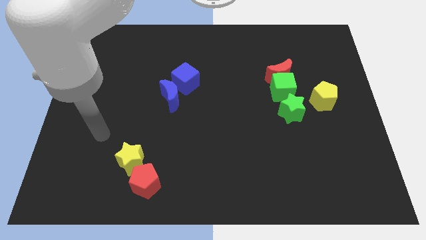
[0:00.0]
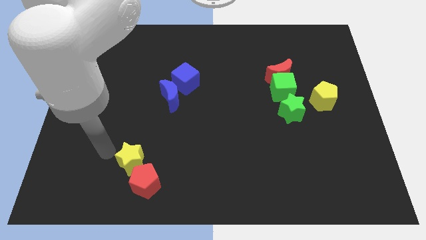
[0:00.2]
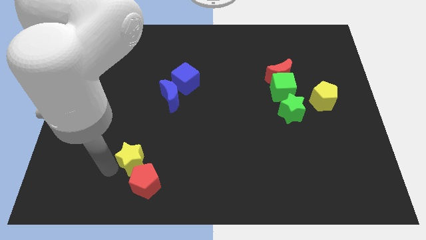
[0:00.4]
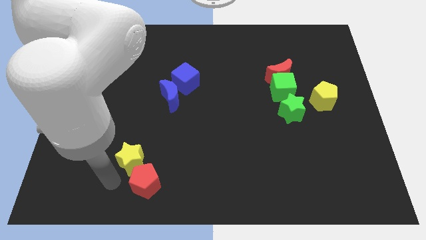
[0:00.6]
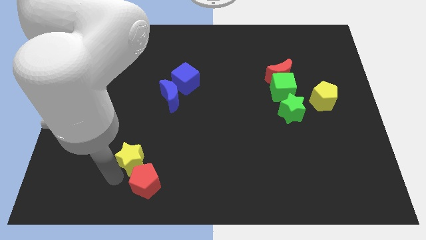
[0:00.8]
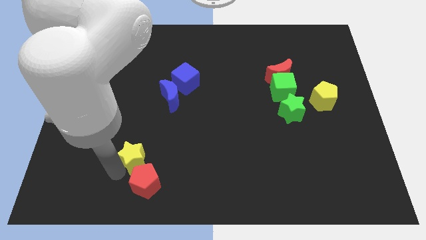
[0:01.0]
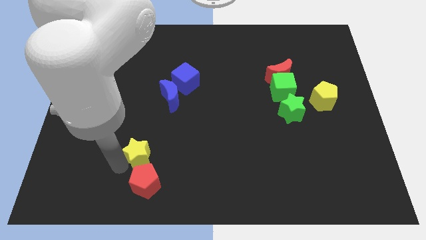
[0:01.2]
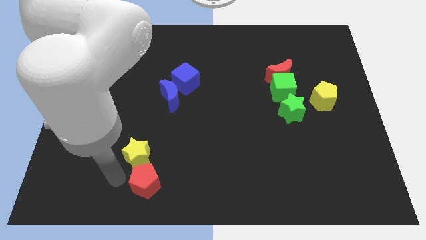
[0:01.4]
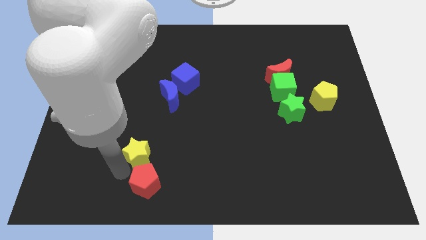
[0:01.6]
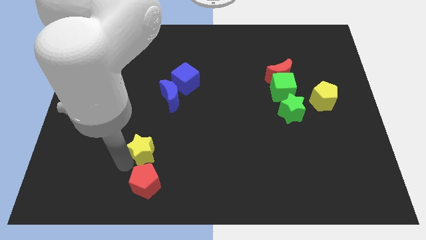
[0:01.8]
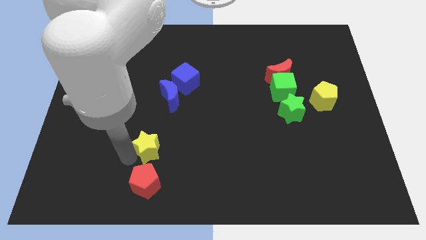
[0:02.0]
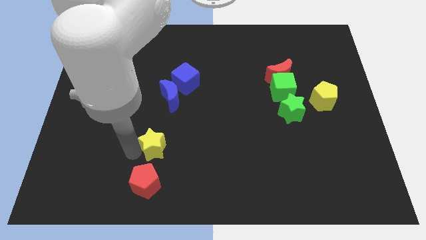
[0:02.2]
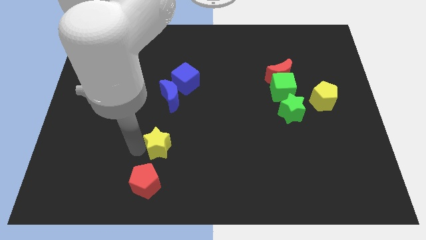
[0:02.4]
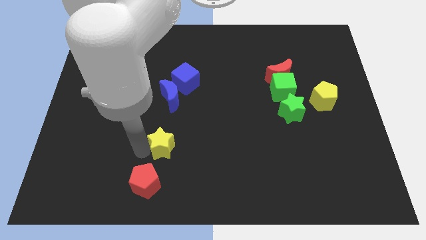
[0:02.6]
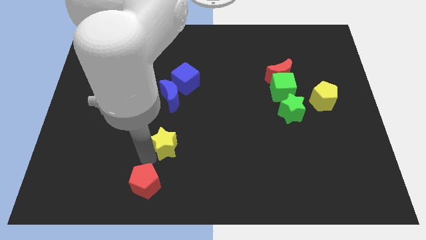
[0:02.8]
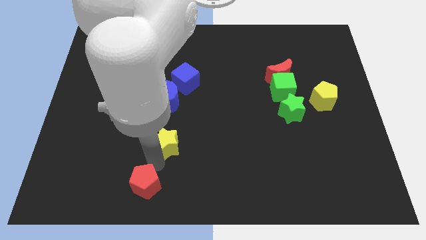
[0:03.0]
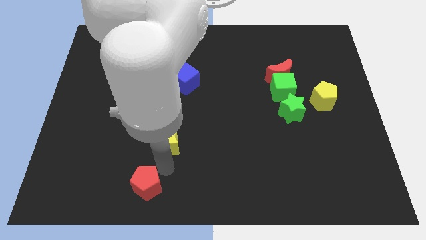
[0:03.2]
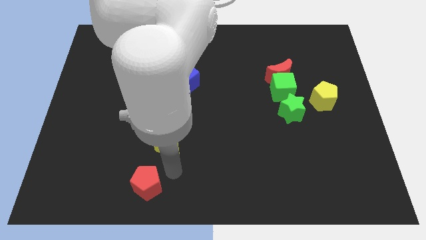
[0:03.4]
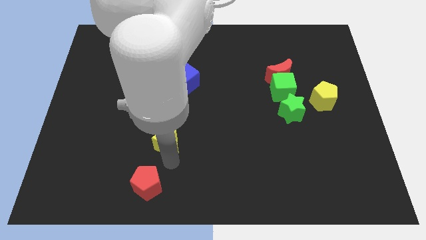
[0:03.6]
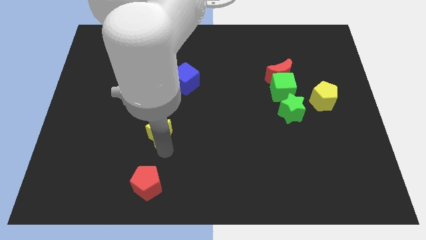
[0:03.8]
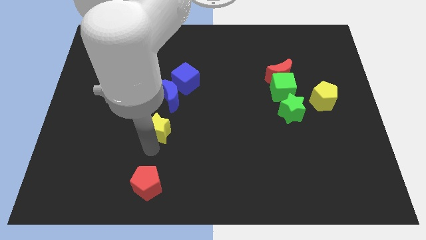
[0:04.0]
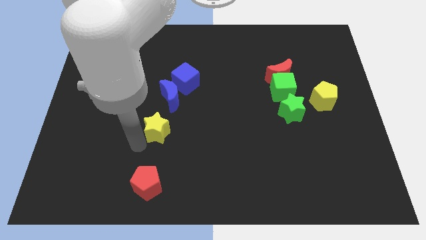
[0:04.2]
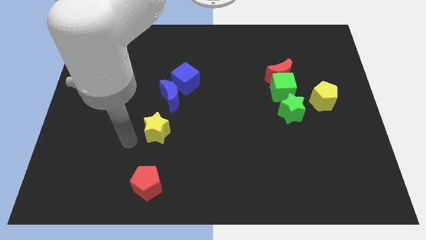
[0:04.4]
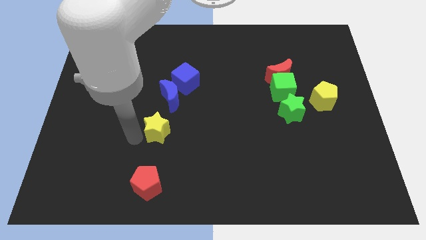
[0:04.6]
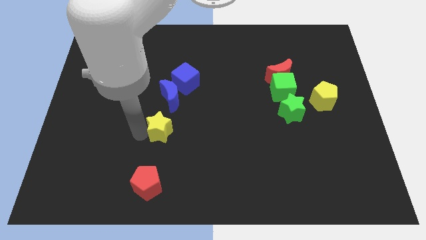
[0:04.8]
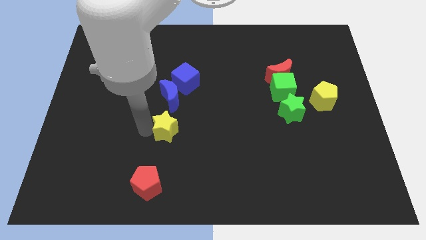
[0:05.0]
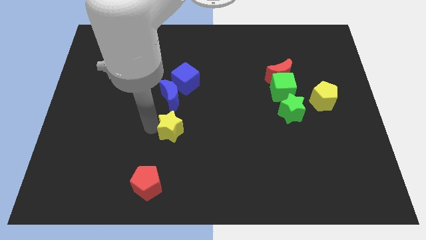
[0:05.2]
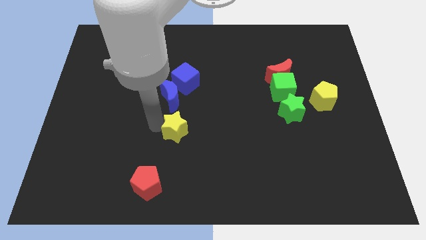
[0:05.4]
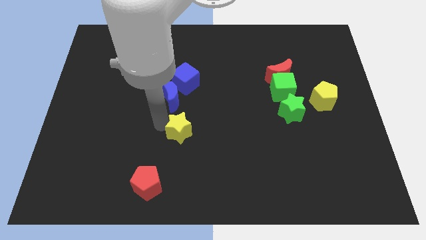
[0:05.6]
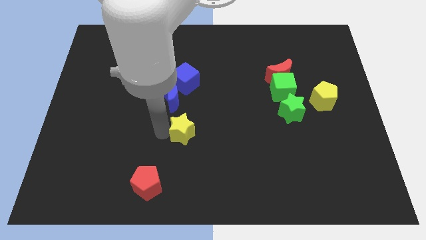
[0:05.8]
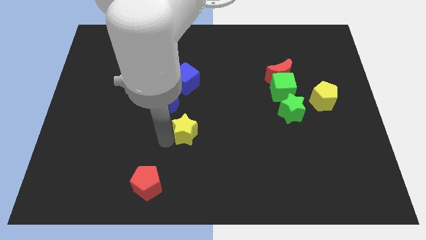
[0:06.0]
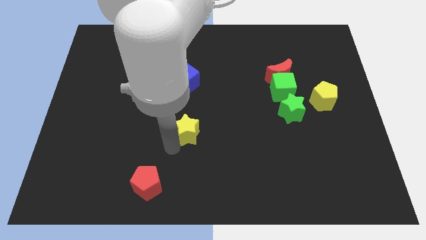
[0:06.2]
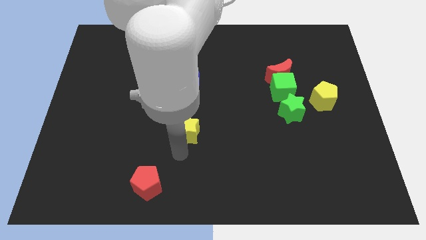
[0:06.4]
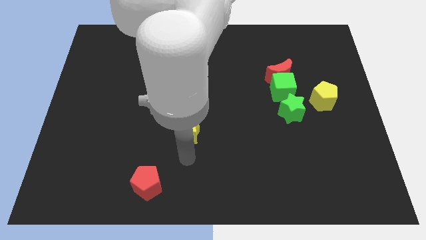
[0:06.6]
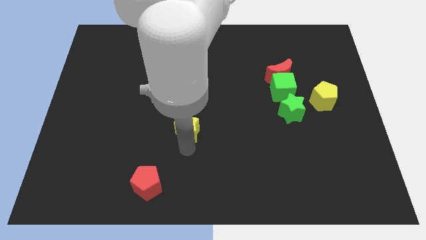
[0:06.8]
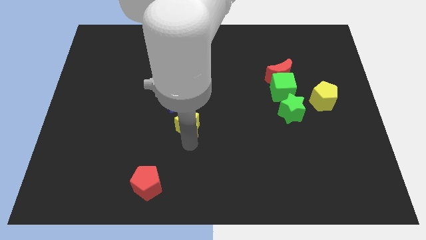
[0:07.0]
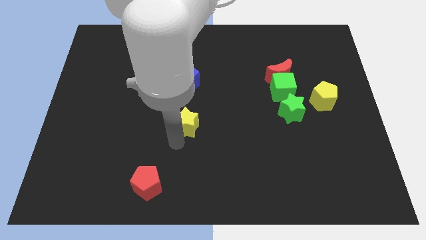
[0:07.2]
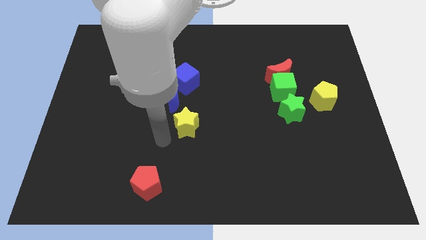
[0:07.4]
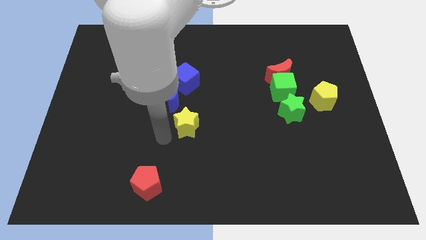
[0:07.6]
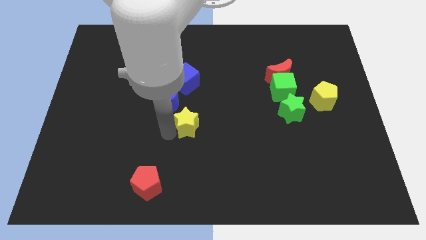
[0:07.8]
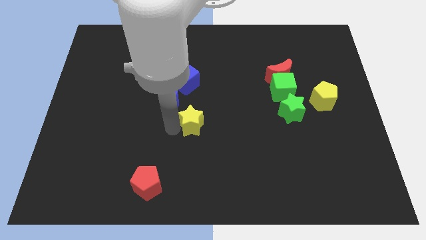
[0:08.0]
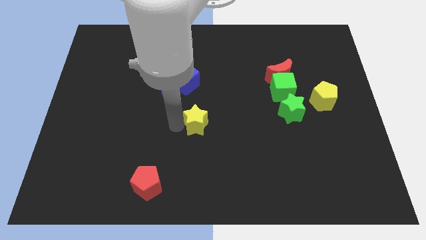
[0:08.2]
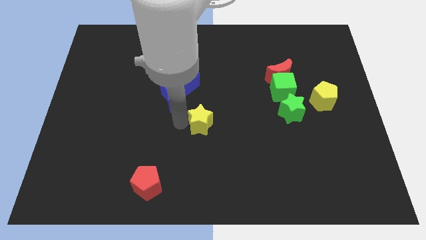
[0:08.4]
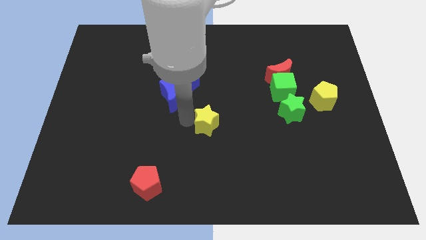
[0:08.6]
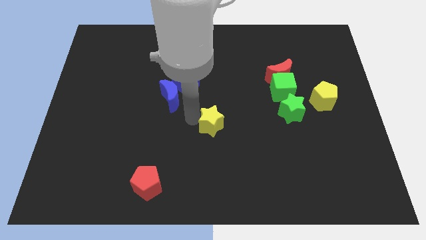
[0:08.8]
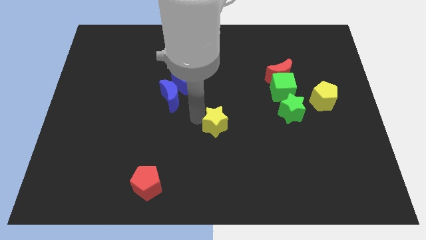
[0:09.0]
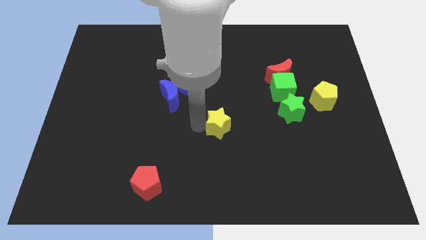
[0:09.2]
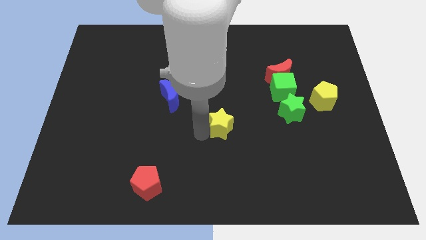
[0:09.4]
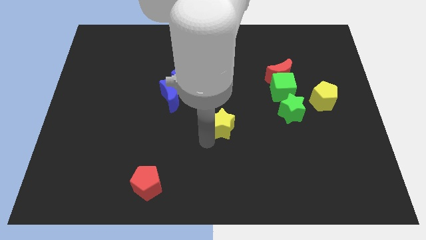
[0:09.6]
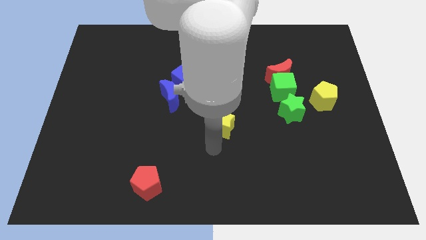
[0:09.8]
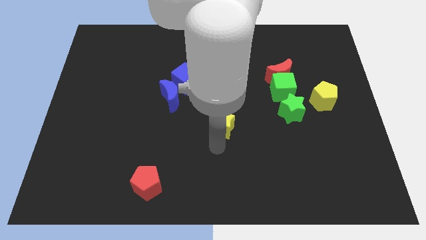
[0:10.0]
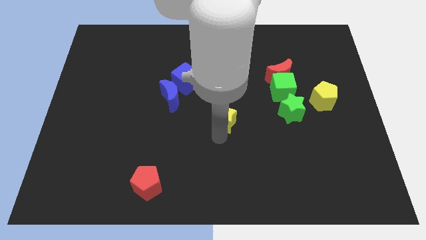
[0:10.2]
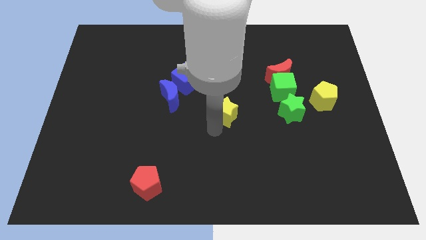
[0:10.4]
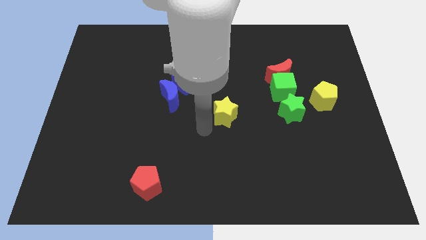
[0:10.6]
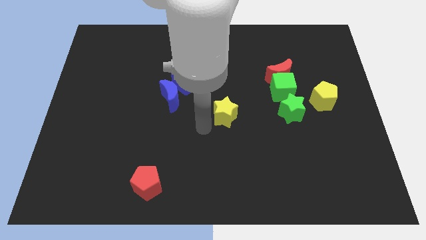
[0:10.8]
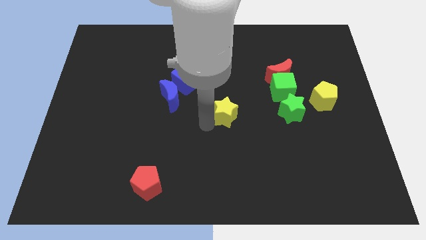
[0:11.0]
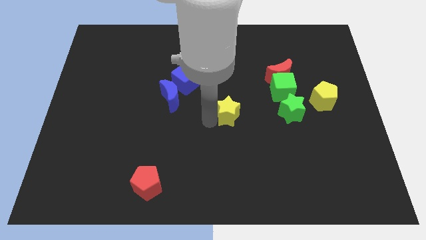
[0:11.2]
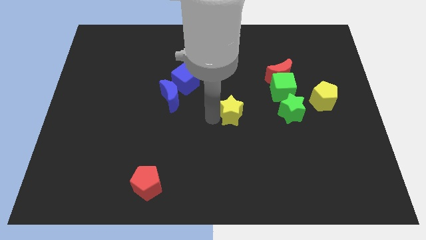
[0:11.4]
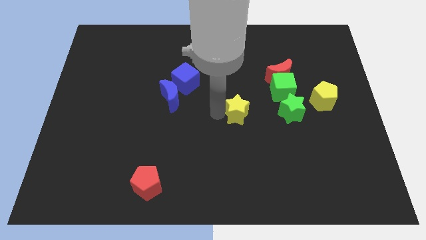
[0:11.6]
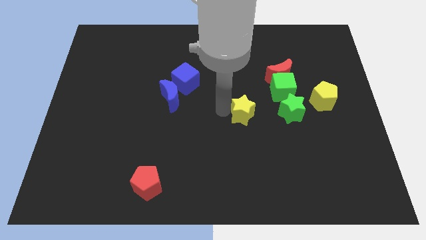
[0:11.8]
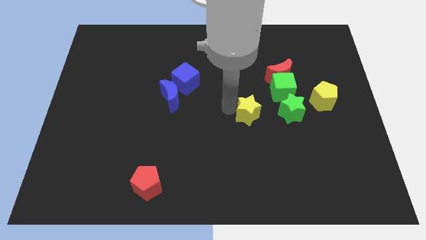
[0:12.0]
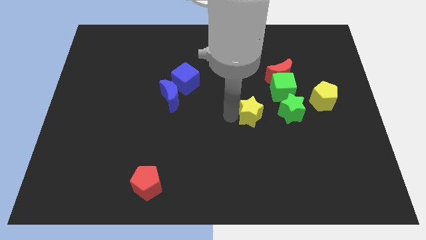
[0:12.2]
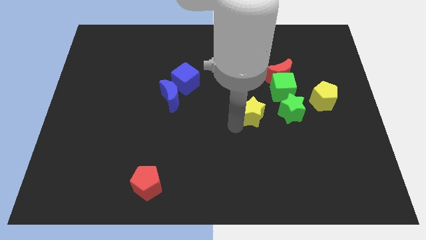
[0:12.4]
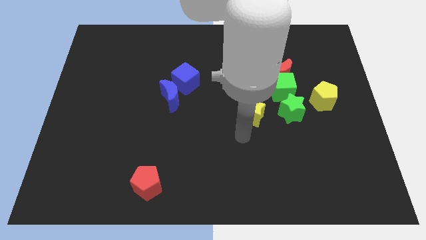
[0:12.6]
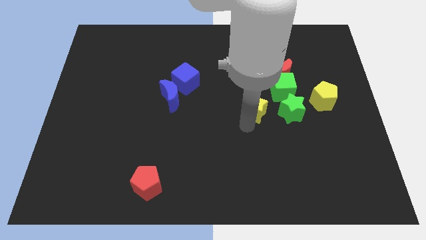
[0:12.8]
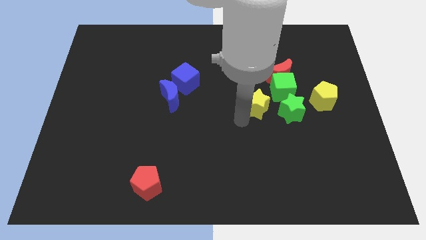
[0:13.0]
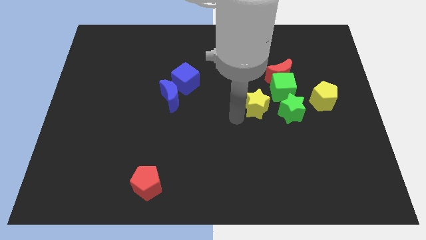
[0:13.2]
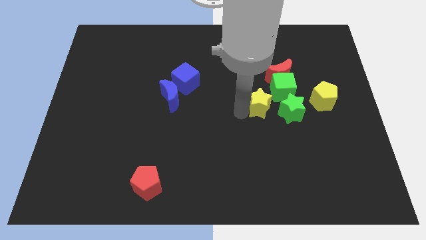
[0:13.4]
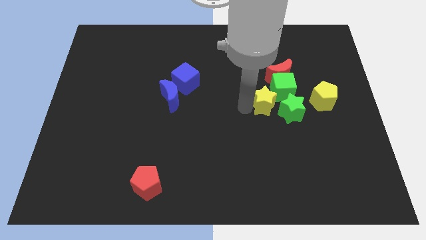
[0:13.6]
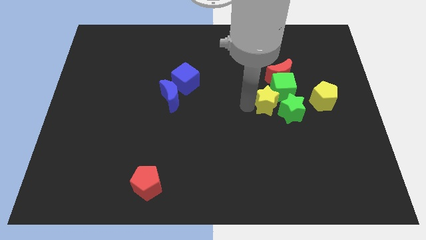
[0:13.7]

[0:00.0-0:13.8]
put the yellow star close to the green cube

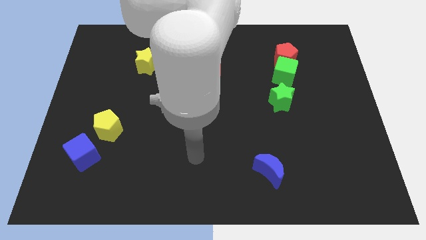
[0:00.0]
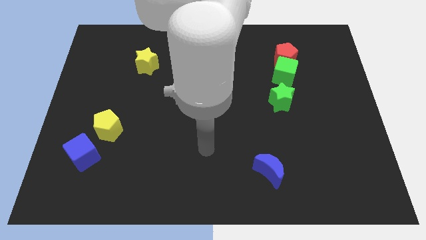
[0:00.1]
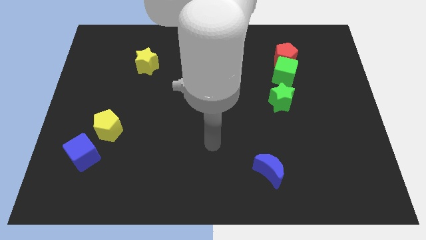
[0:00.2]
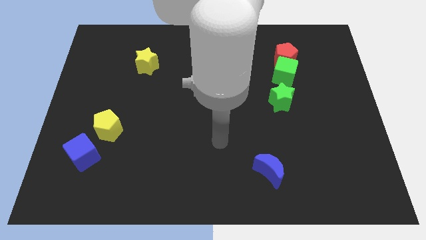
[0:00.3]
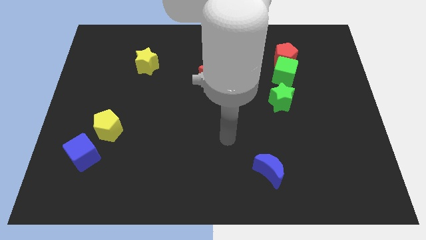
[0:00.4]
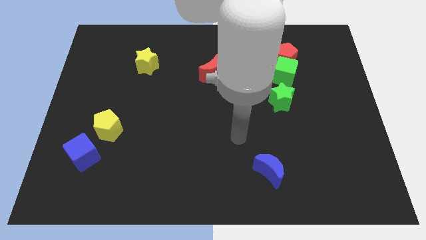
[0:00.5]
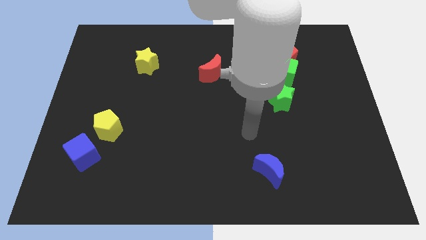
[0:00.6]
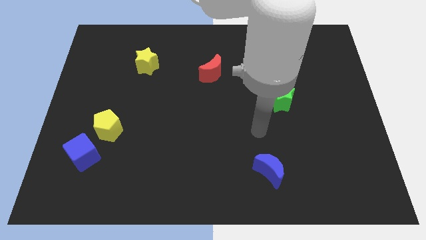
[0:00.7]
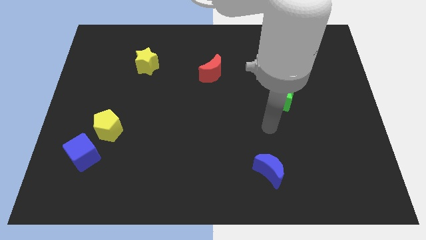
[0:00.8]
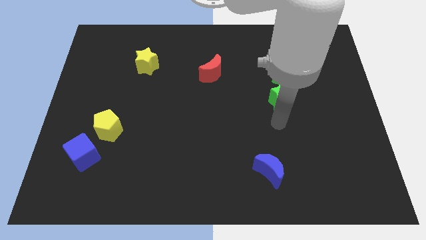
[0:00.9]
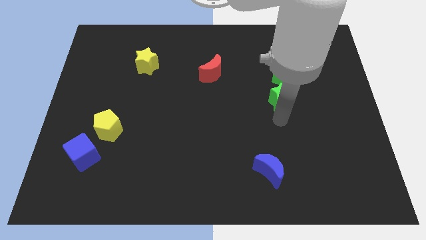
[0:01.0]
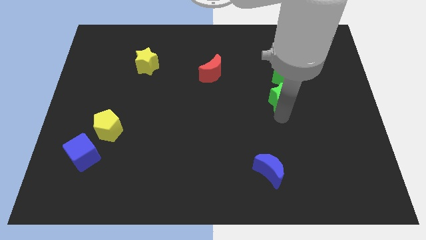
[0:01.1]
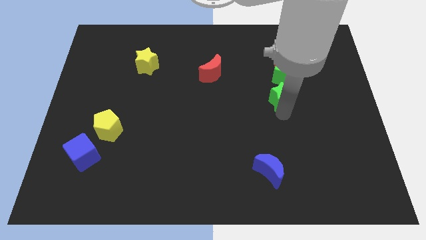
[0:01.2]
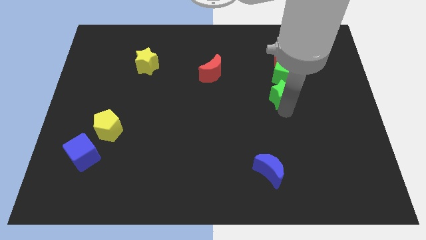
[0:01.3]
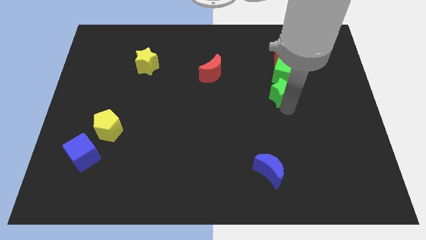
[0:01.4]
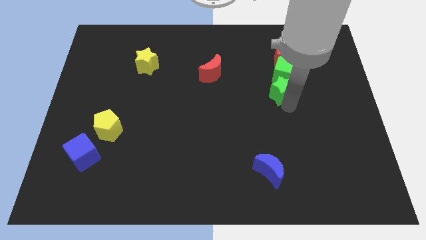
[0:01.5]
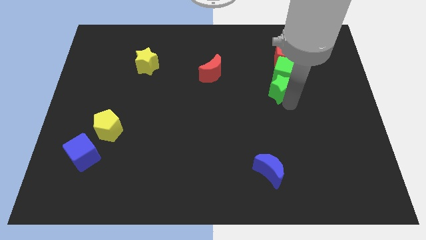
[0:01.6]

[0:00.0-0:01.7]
slide the green star to the green cube
